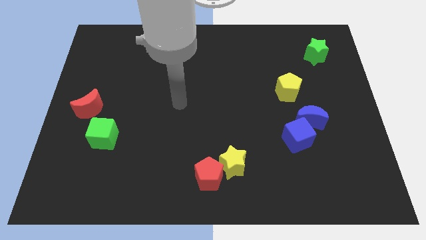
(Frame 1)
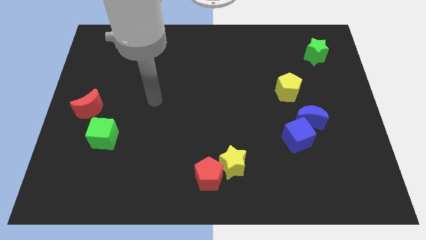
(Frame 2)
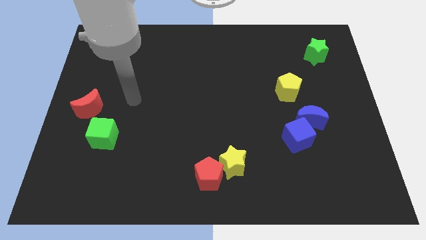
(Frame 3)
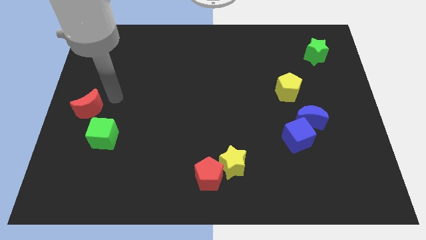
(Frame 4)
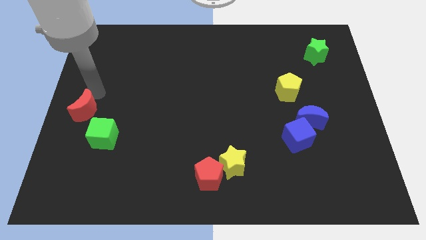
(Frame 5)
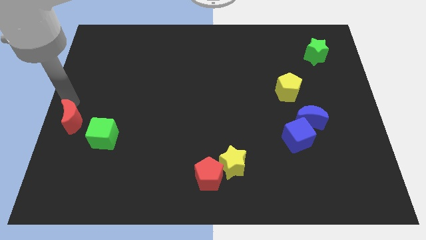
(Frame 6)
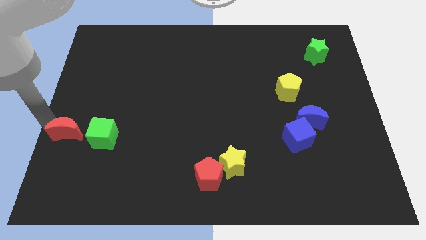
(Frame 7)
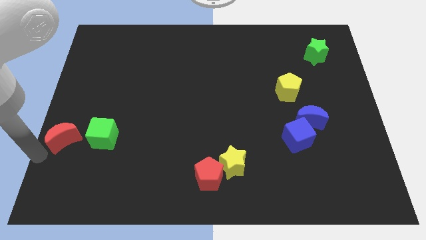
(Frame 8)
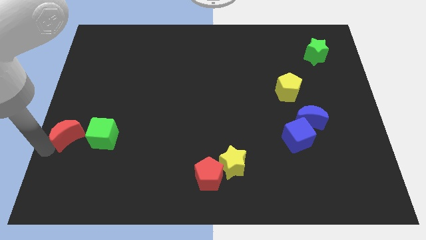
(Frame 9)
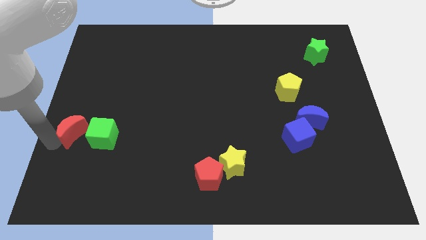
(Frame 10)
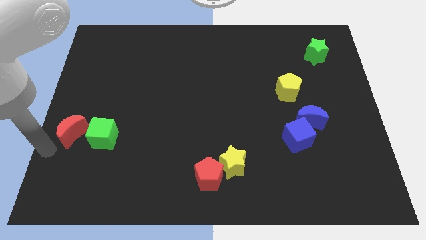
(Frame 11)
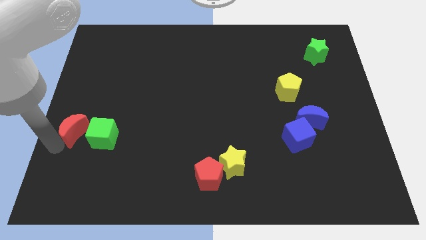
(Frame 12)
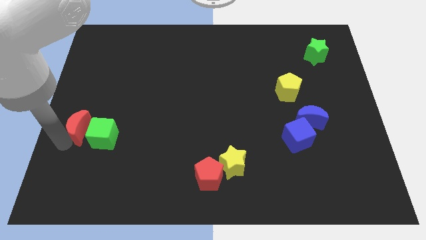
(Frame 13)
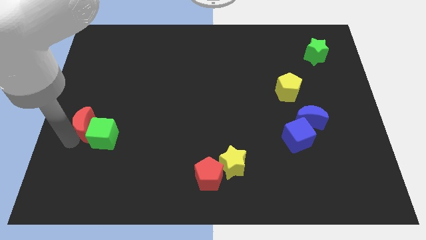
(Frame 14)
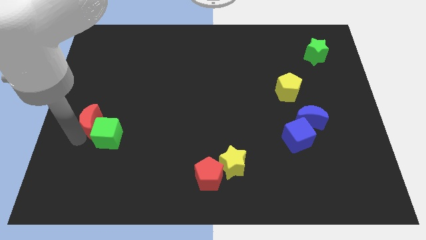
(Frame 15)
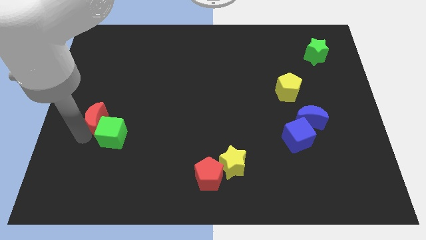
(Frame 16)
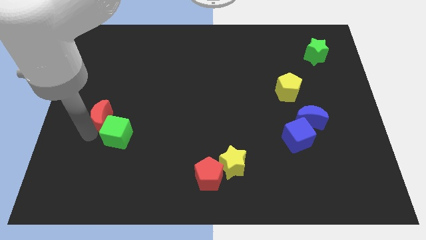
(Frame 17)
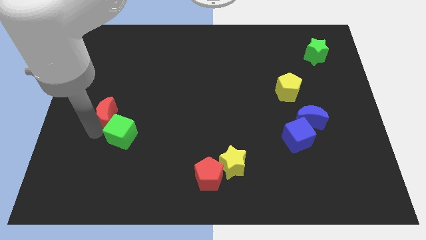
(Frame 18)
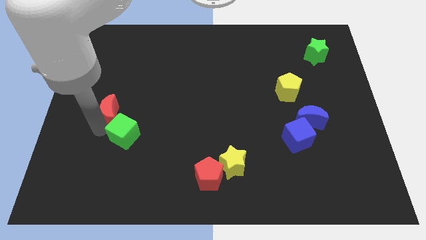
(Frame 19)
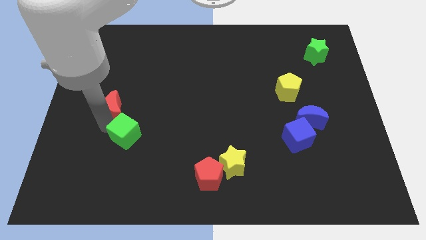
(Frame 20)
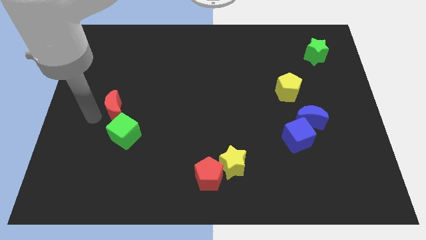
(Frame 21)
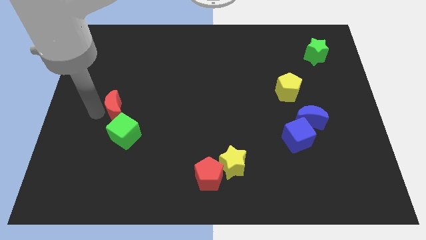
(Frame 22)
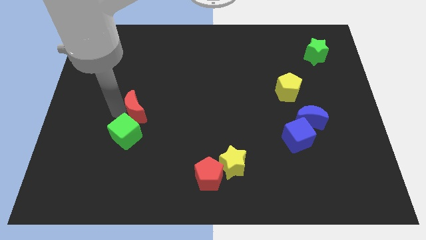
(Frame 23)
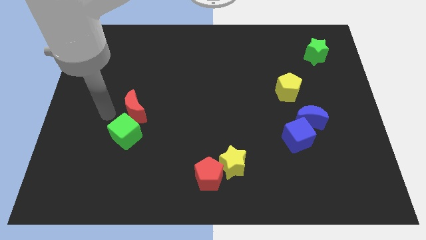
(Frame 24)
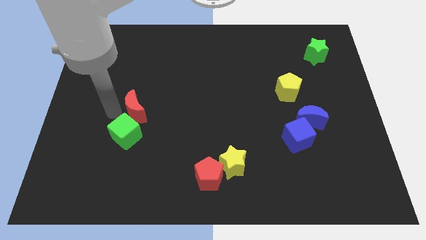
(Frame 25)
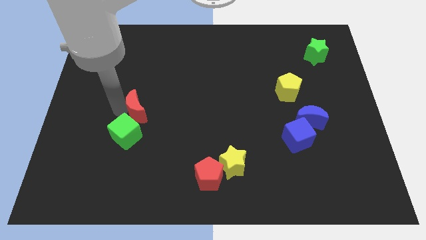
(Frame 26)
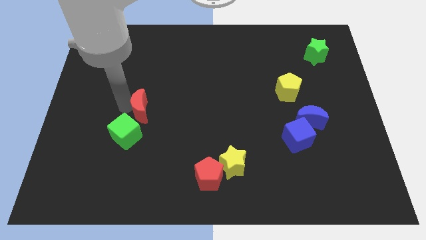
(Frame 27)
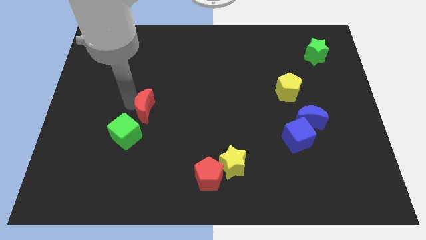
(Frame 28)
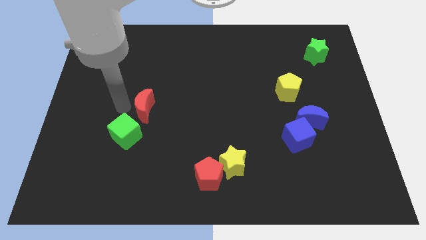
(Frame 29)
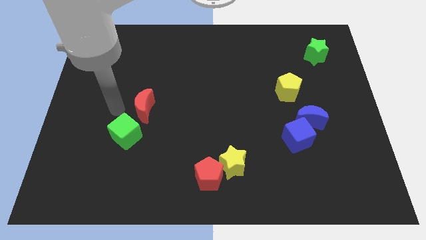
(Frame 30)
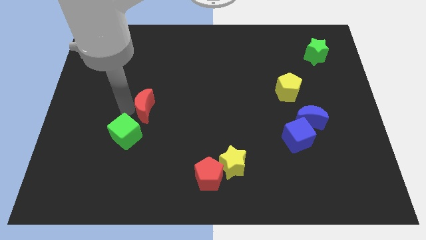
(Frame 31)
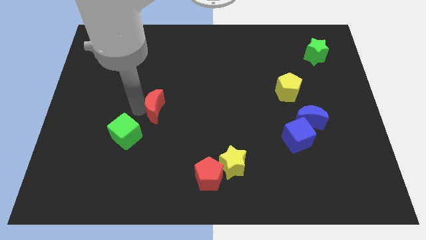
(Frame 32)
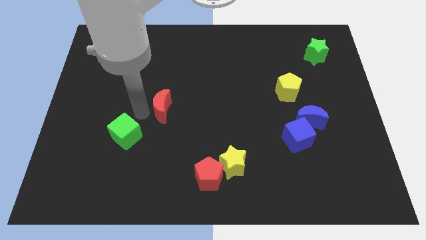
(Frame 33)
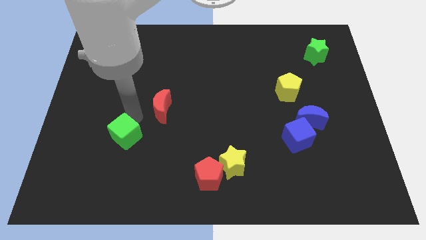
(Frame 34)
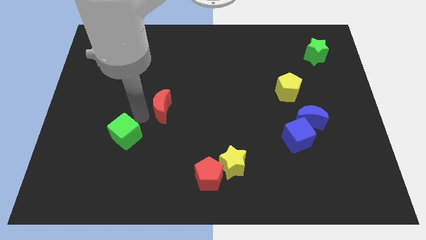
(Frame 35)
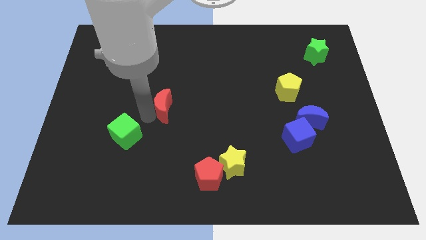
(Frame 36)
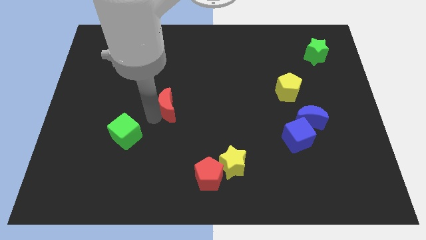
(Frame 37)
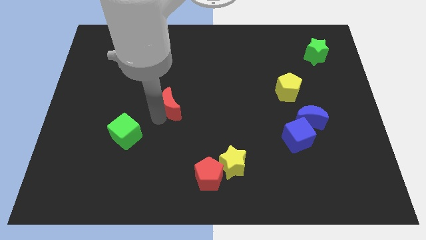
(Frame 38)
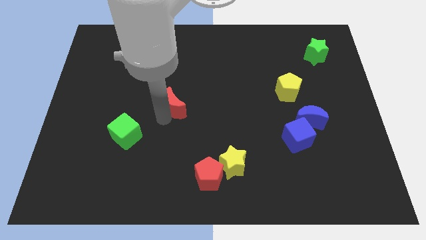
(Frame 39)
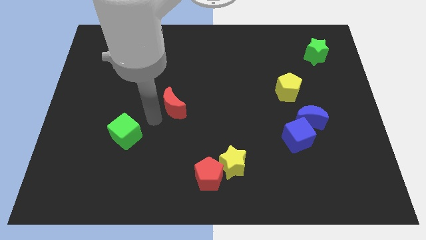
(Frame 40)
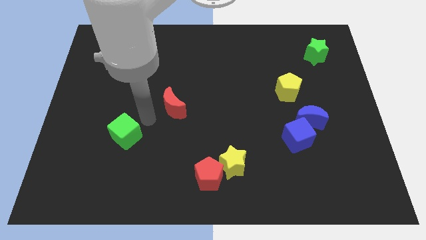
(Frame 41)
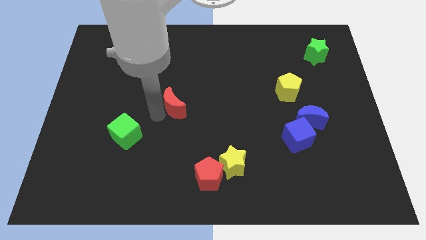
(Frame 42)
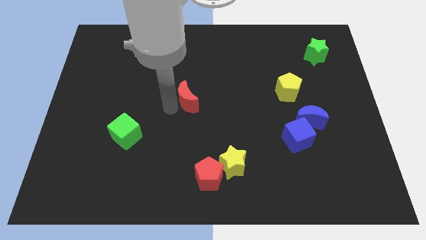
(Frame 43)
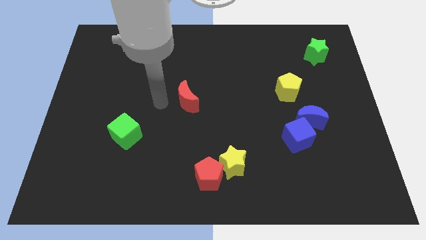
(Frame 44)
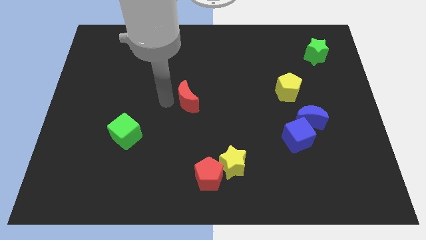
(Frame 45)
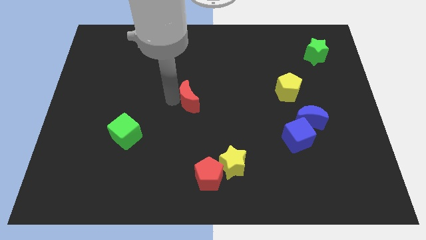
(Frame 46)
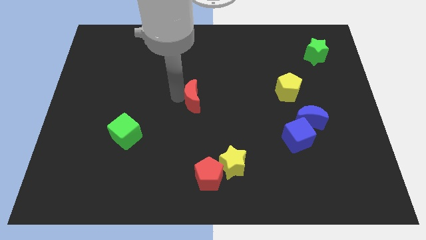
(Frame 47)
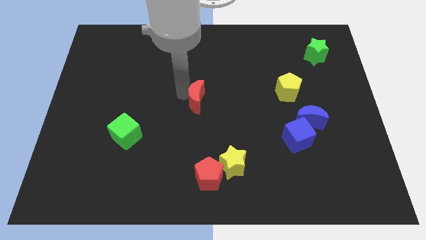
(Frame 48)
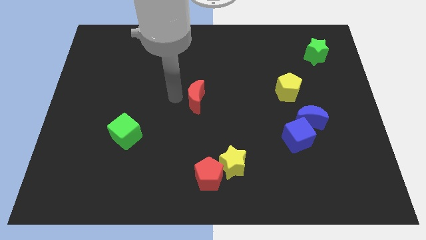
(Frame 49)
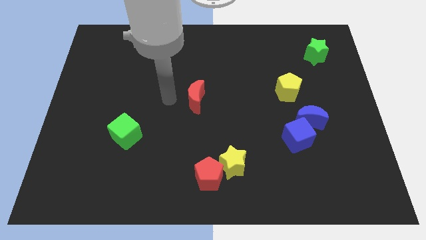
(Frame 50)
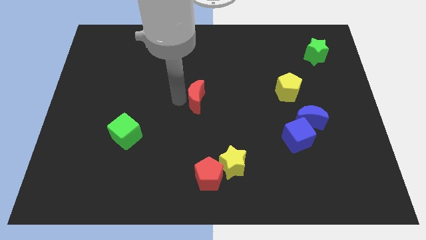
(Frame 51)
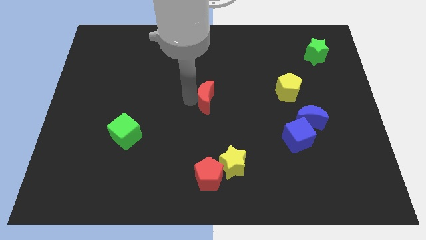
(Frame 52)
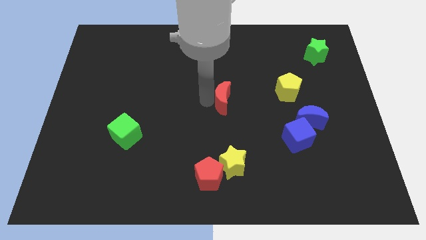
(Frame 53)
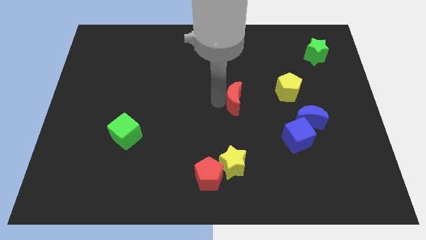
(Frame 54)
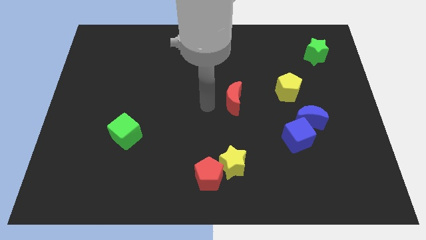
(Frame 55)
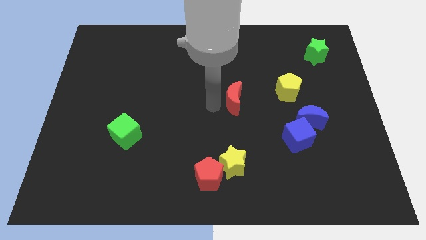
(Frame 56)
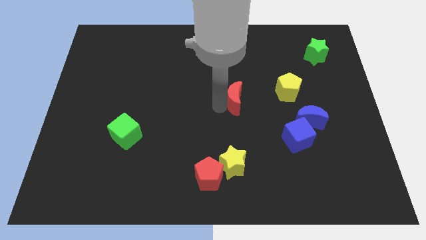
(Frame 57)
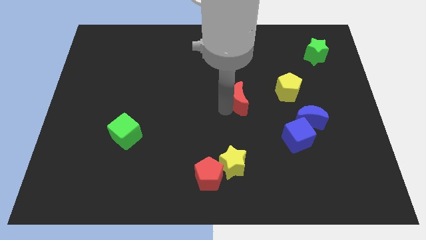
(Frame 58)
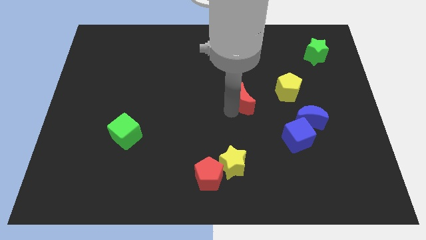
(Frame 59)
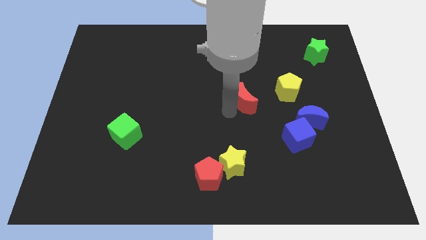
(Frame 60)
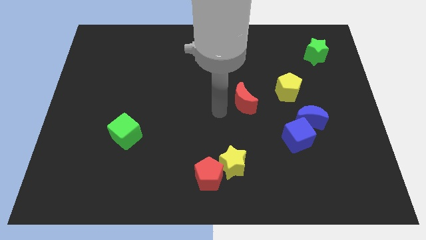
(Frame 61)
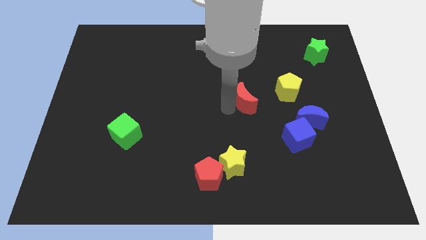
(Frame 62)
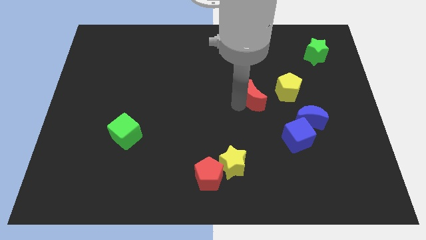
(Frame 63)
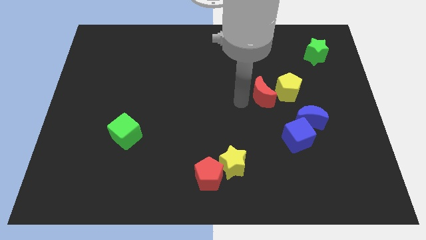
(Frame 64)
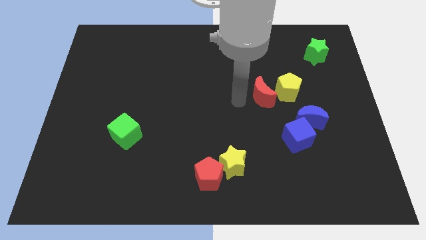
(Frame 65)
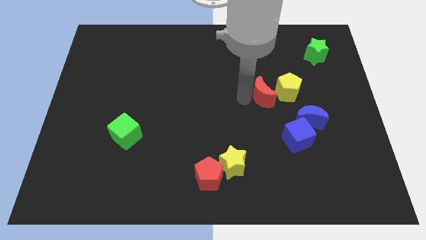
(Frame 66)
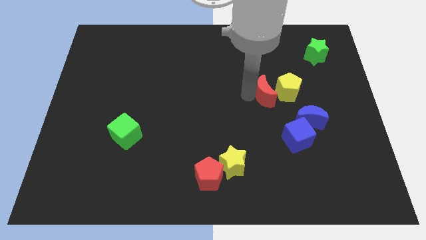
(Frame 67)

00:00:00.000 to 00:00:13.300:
put the red moon close to the yellow pentagon

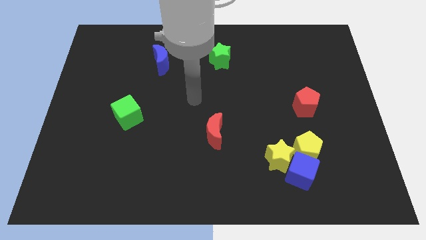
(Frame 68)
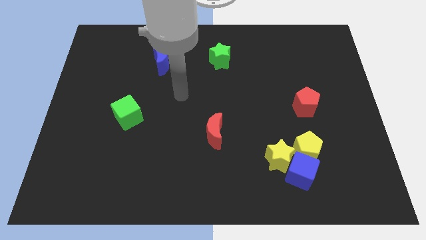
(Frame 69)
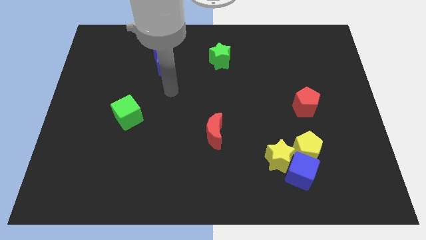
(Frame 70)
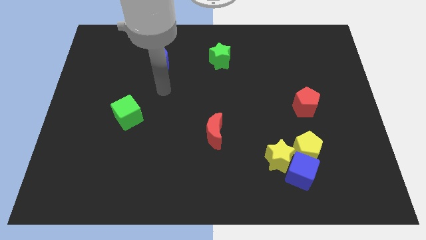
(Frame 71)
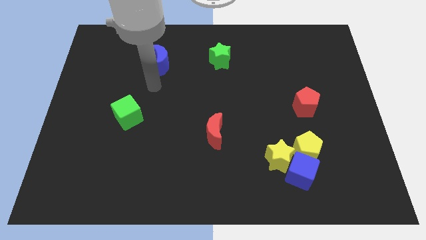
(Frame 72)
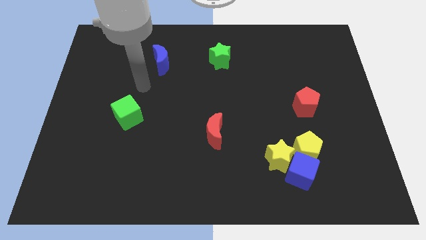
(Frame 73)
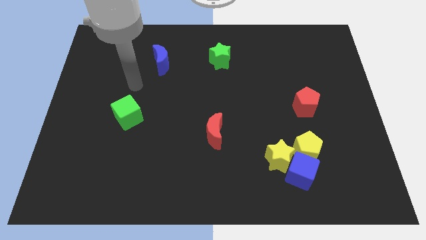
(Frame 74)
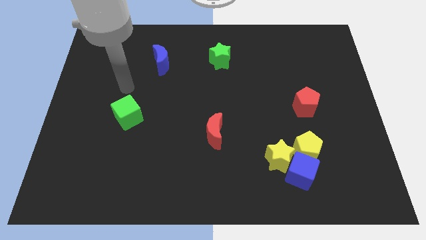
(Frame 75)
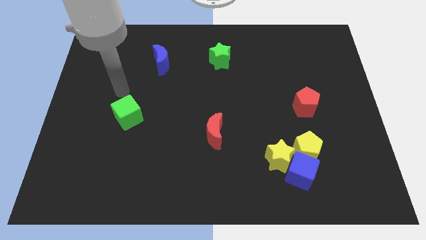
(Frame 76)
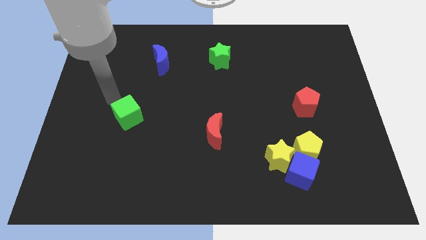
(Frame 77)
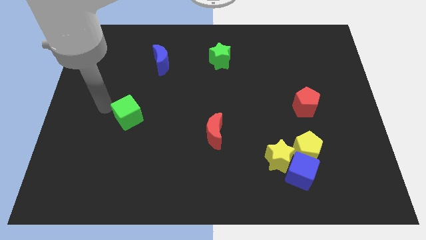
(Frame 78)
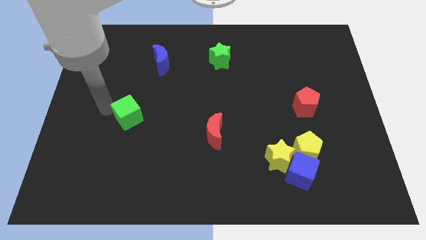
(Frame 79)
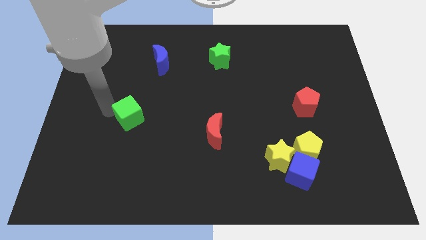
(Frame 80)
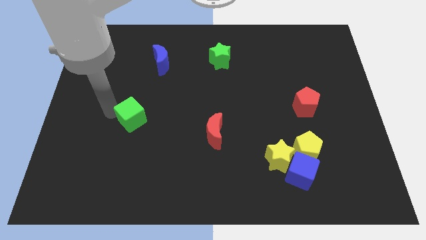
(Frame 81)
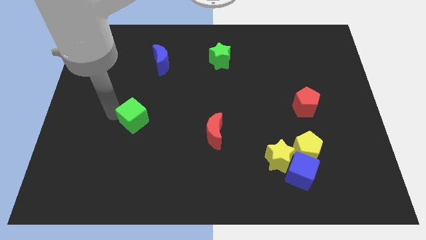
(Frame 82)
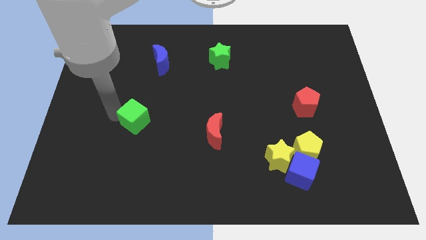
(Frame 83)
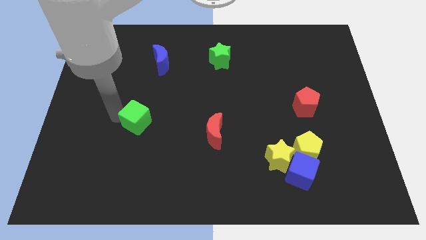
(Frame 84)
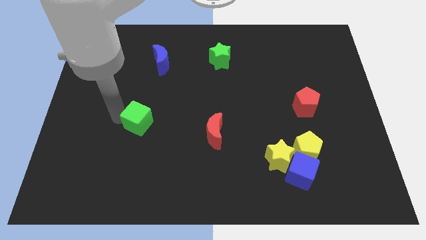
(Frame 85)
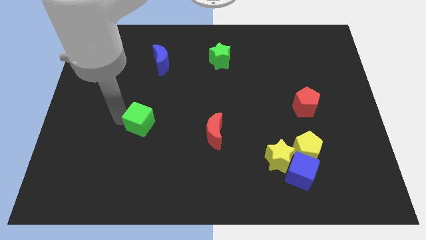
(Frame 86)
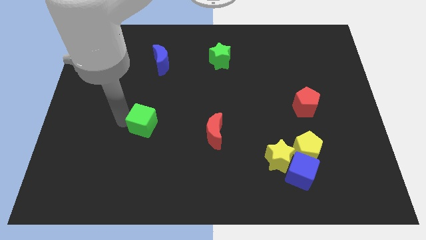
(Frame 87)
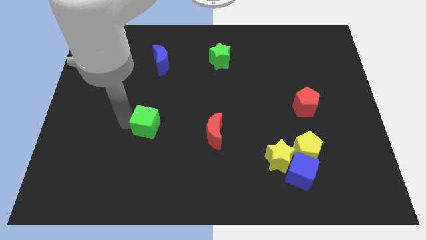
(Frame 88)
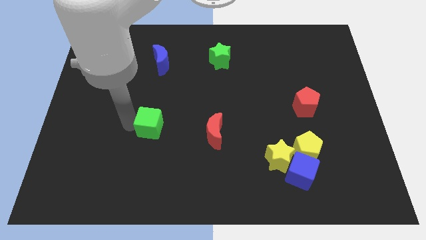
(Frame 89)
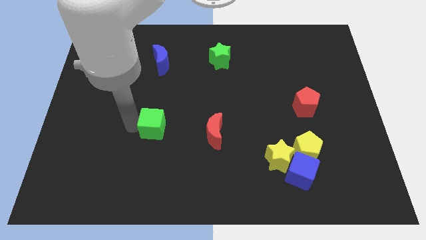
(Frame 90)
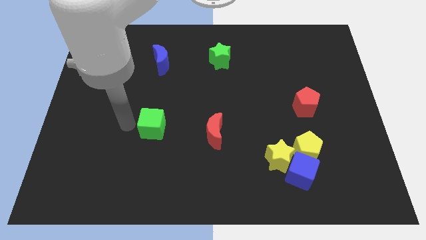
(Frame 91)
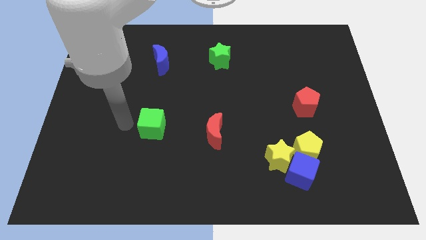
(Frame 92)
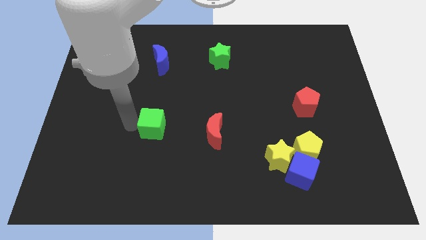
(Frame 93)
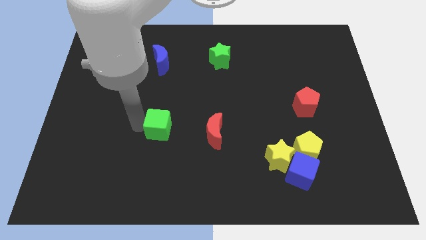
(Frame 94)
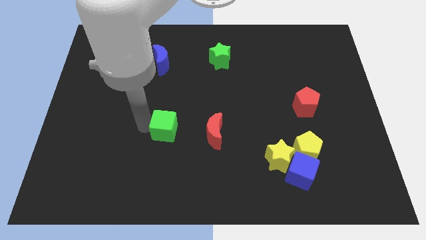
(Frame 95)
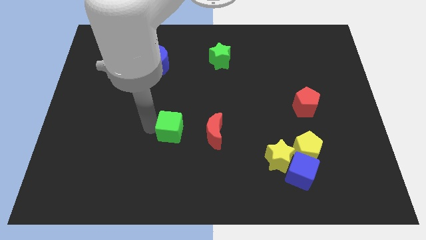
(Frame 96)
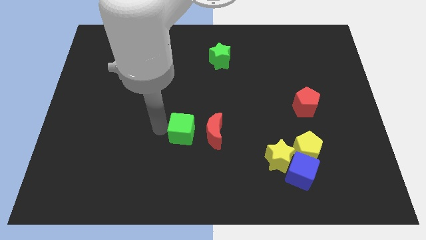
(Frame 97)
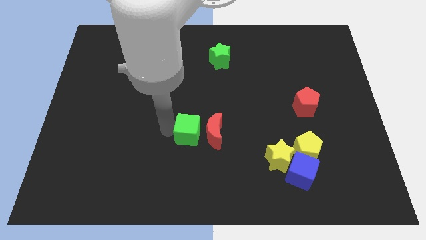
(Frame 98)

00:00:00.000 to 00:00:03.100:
push the green cube towards the red moon
